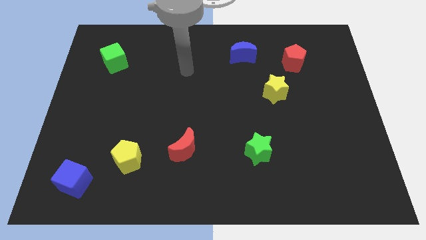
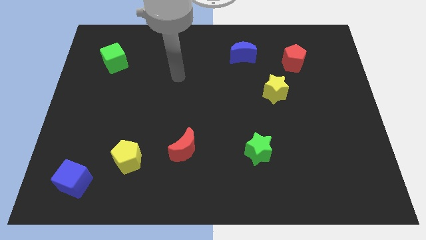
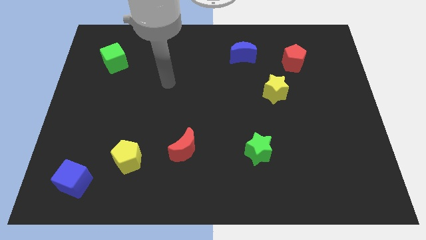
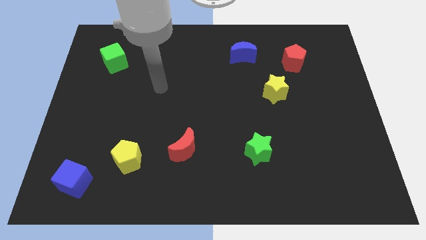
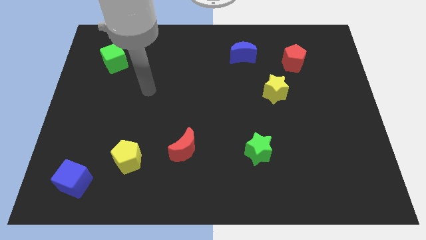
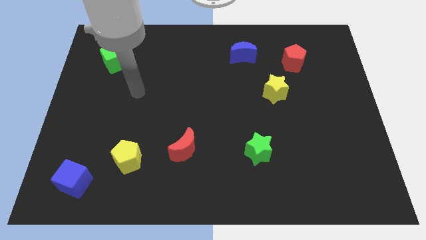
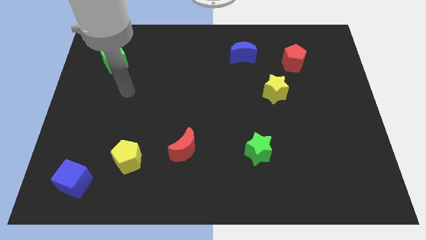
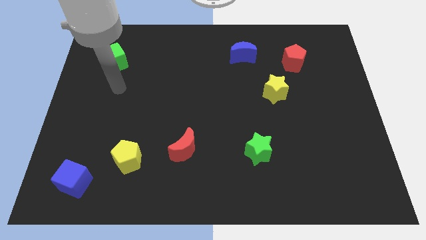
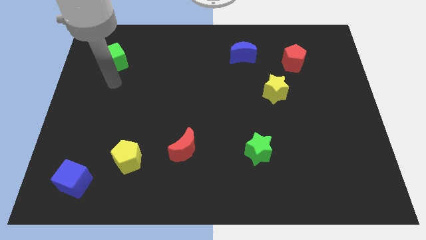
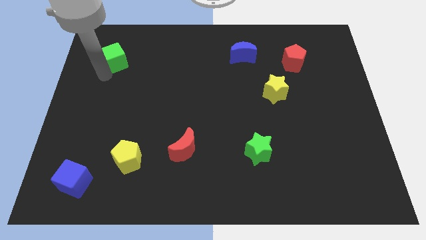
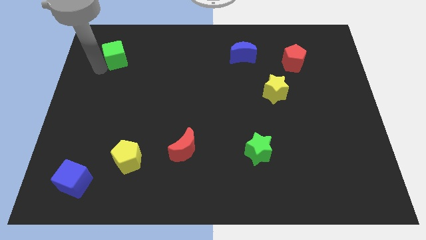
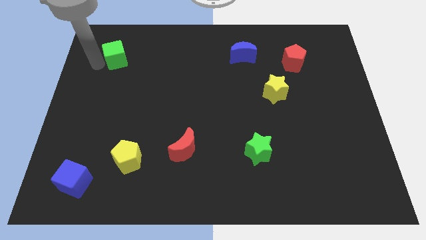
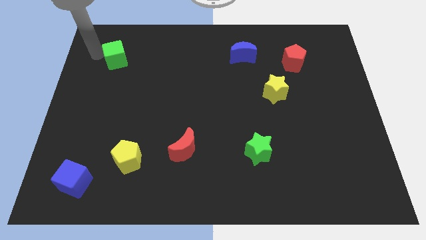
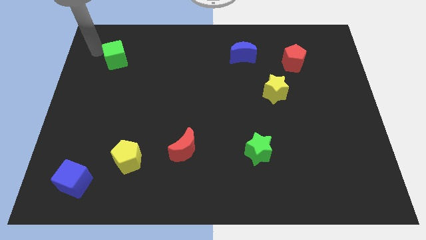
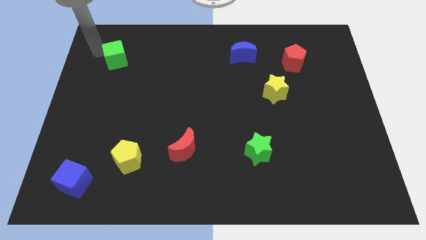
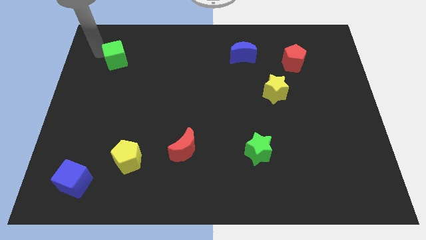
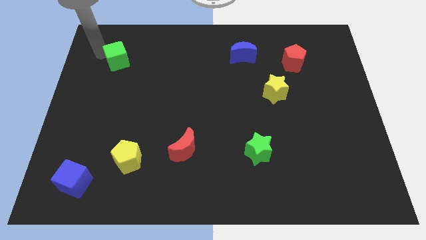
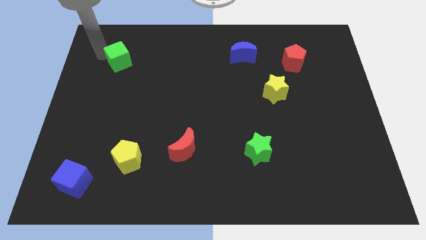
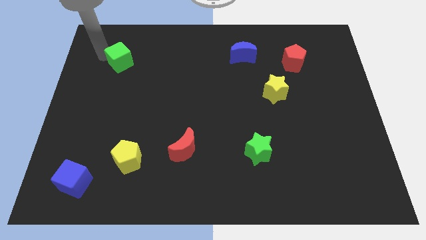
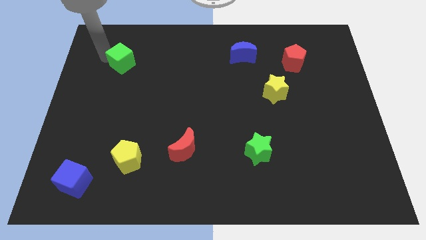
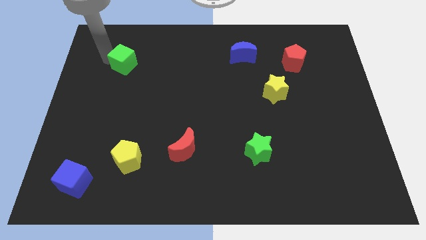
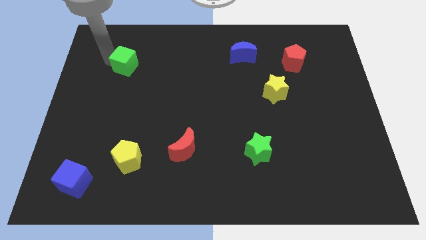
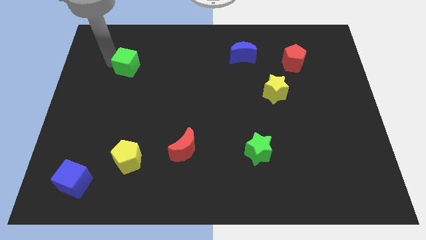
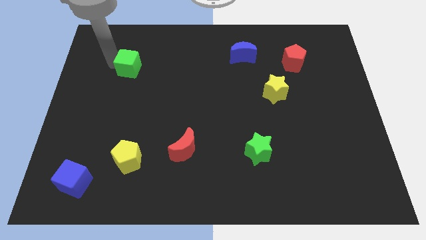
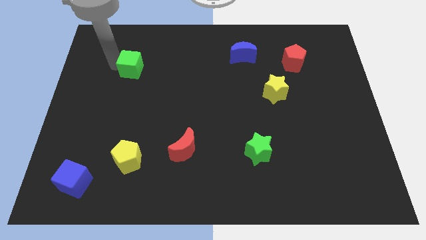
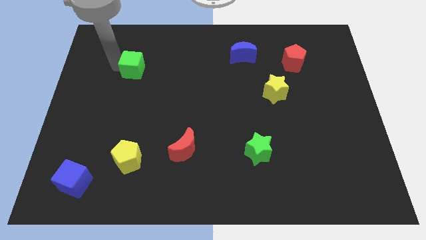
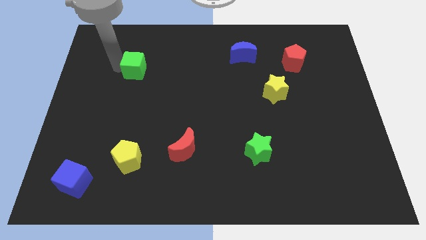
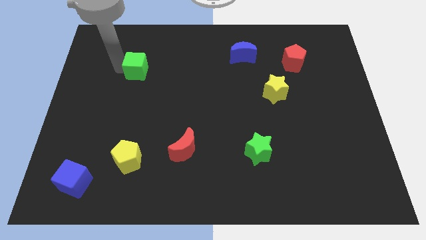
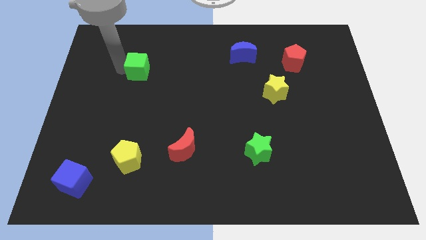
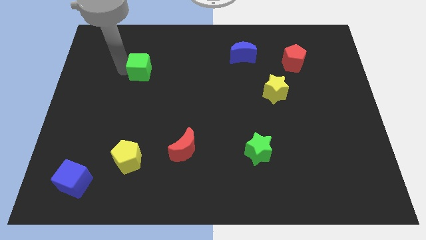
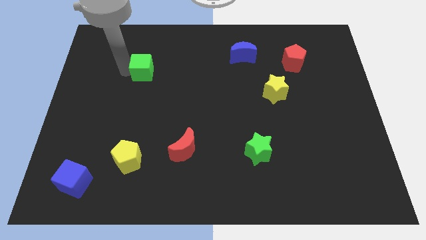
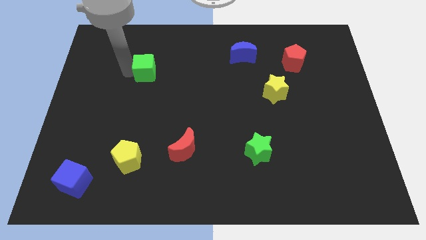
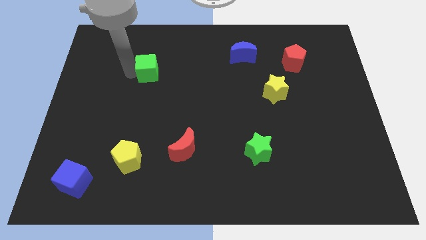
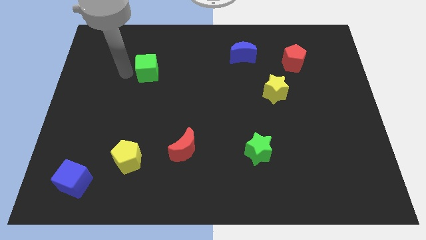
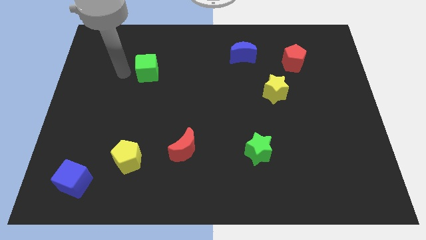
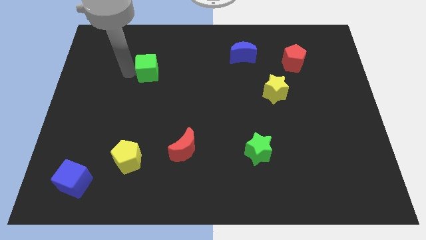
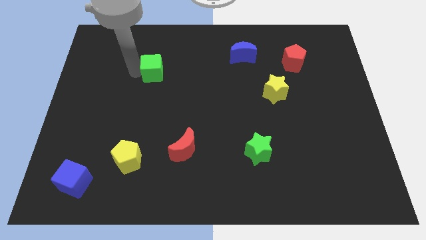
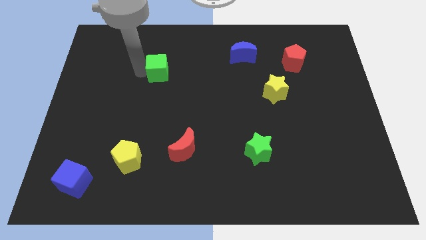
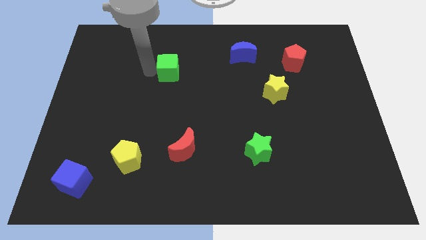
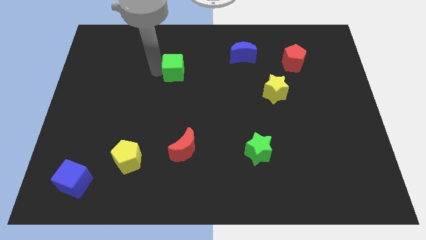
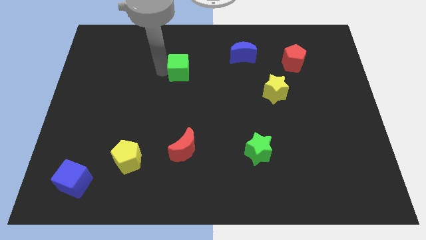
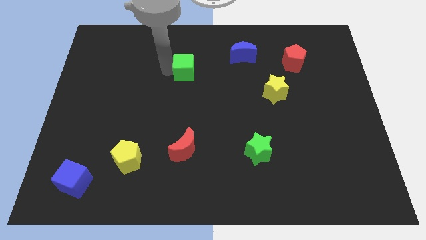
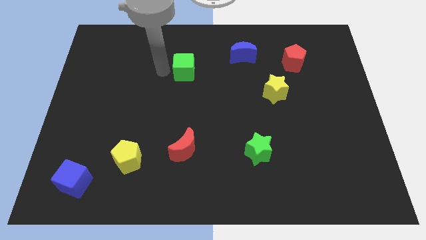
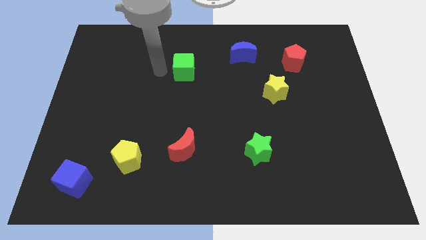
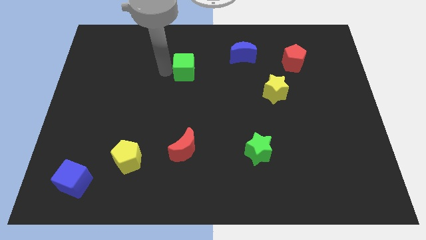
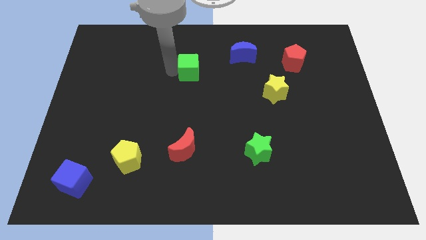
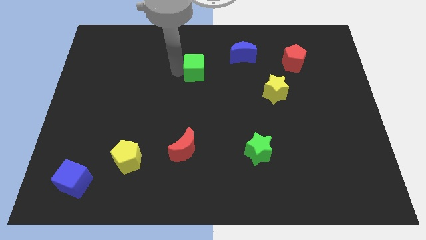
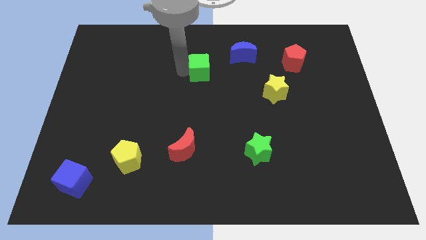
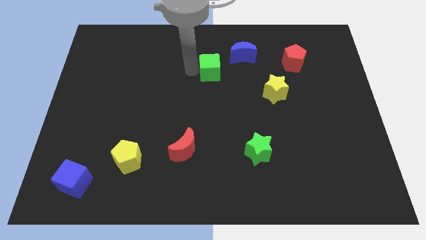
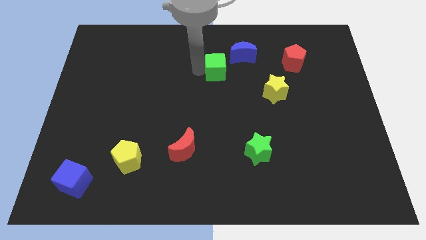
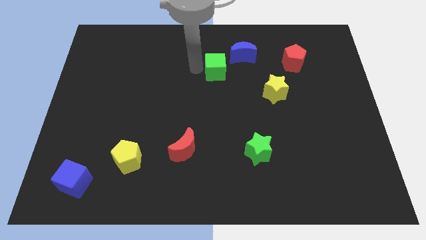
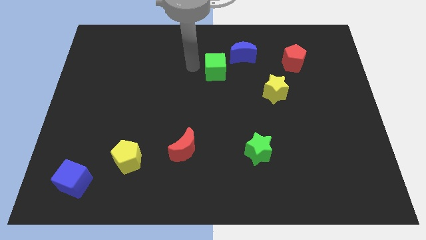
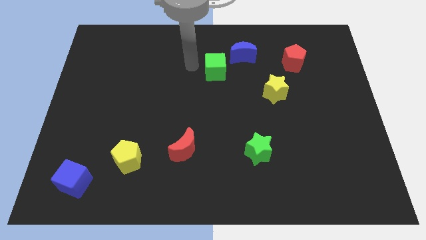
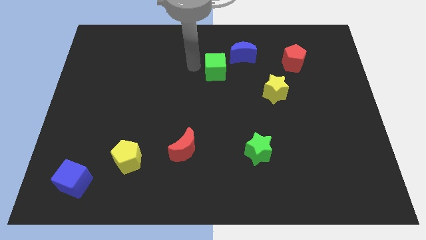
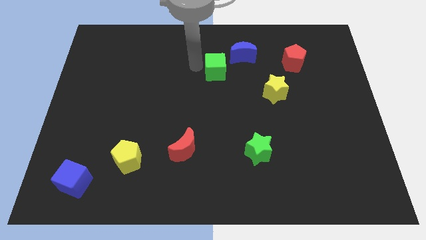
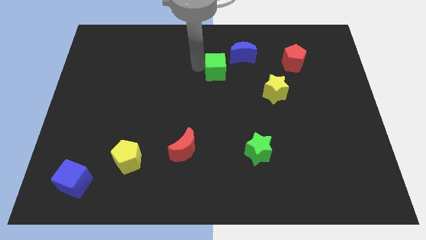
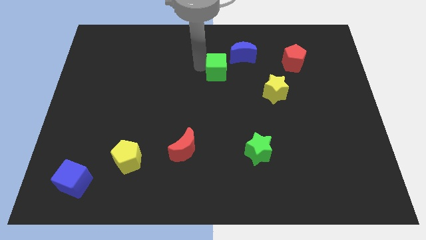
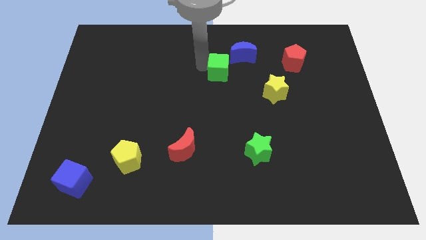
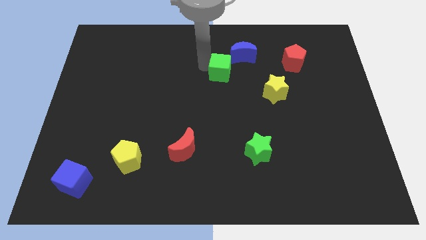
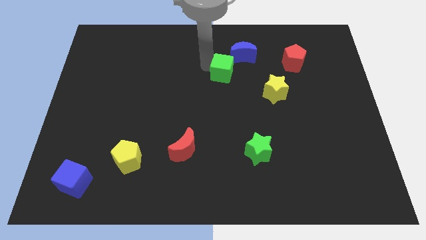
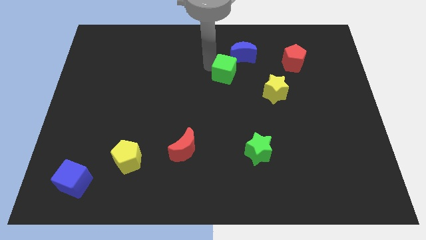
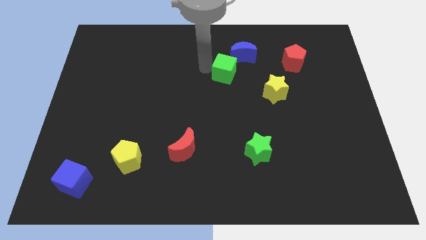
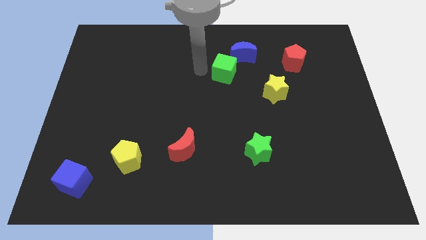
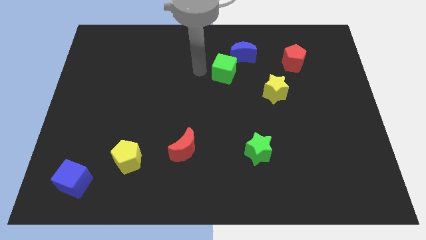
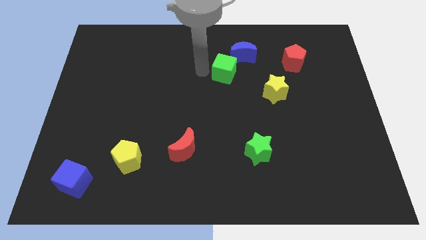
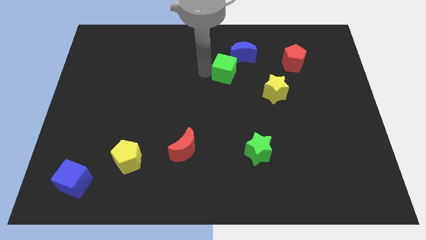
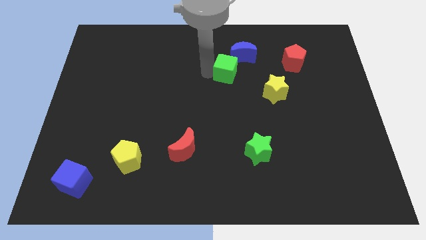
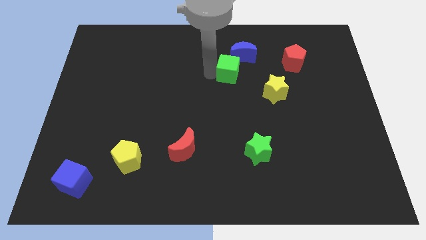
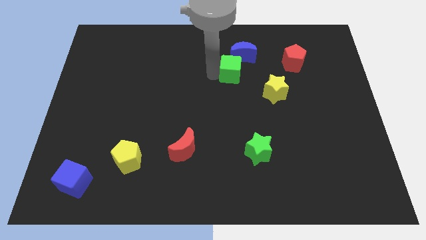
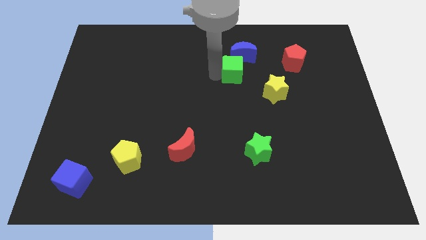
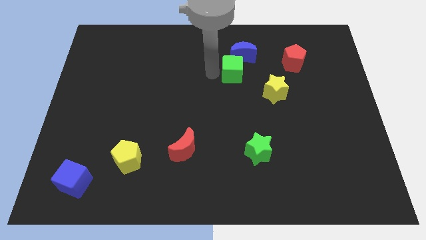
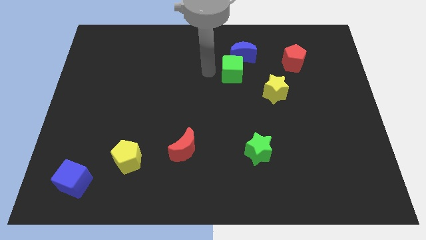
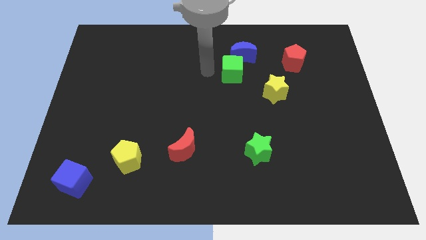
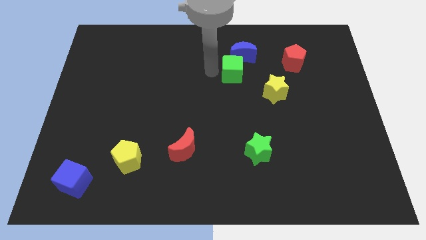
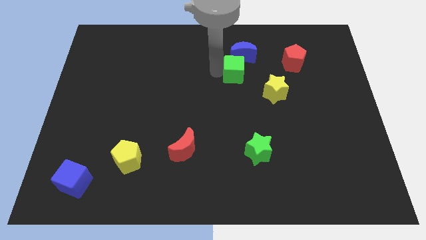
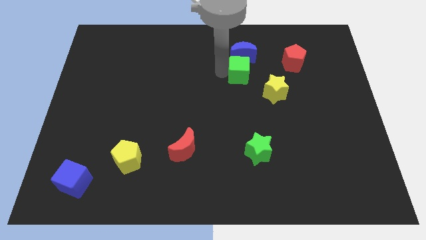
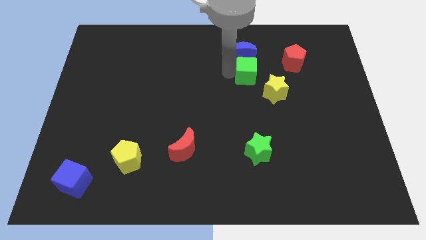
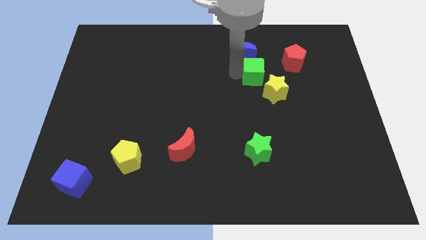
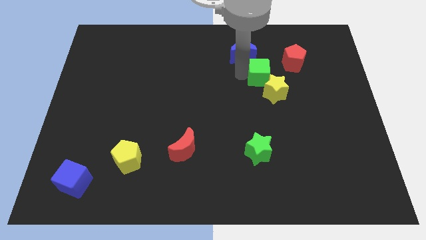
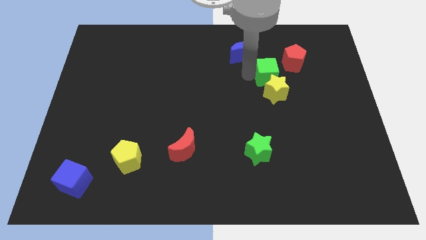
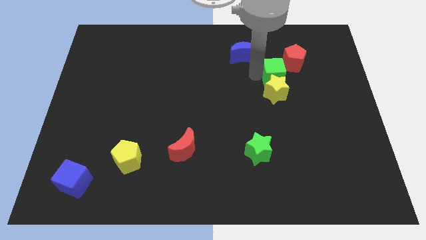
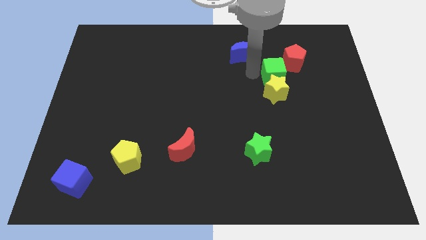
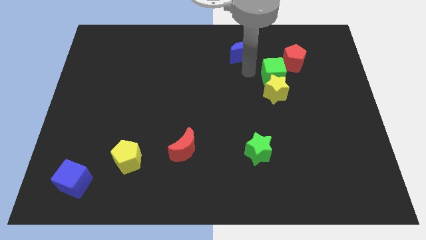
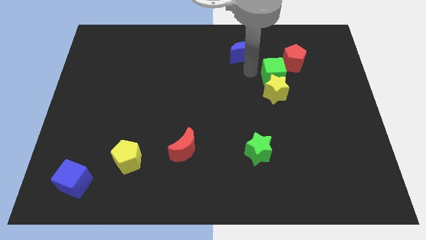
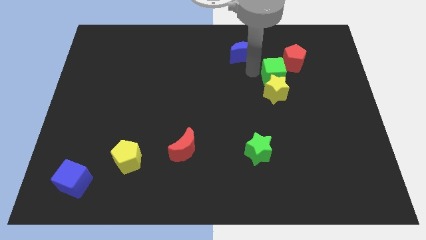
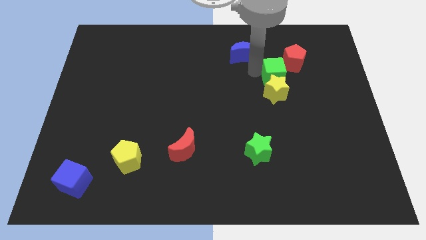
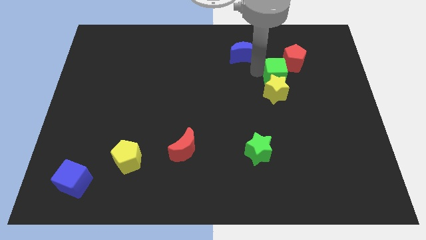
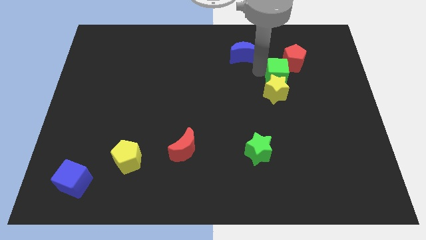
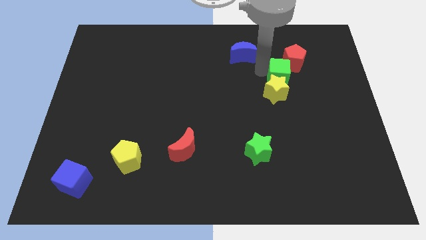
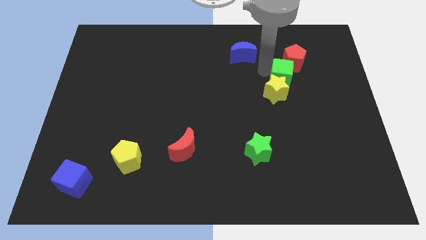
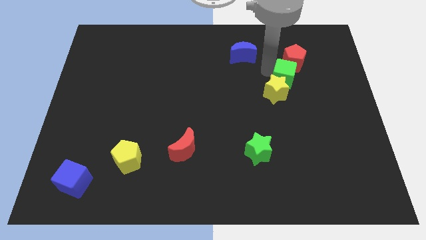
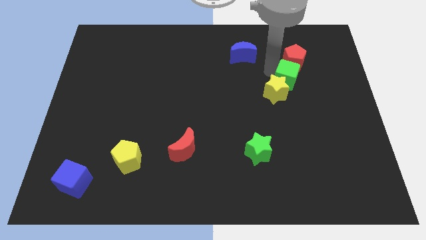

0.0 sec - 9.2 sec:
slide the green cube to the right of the yellow star
